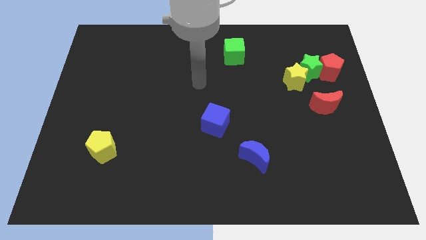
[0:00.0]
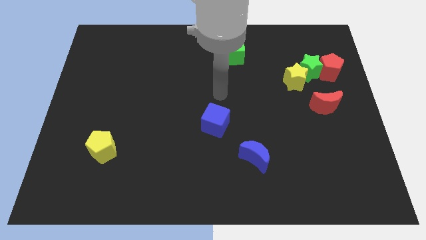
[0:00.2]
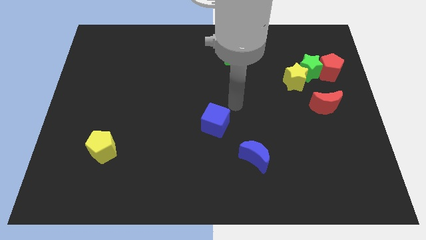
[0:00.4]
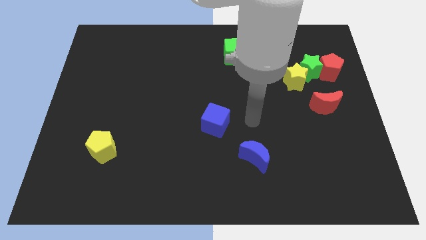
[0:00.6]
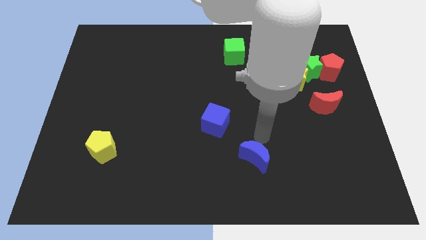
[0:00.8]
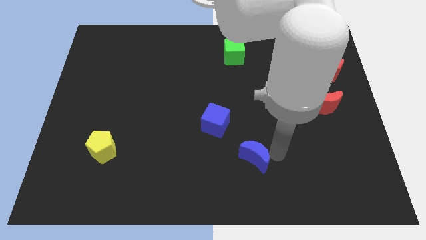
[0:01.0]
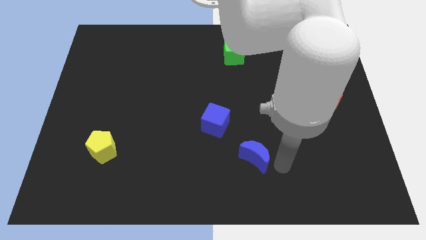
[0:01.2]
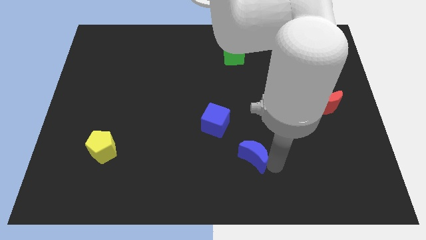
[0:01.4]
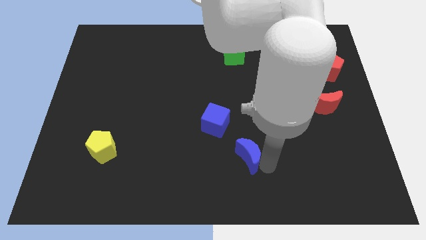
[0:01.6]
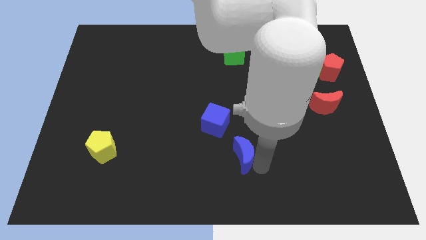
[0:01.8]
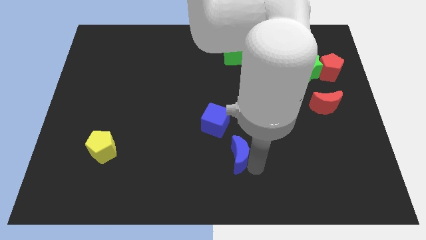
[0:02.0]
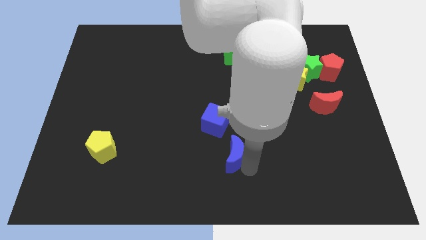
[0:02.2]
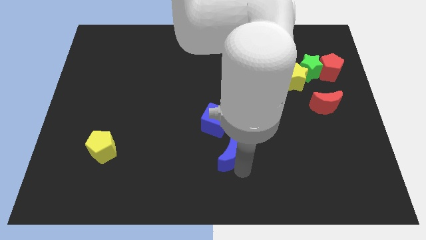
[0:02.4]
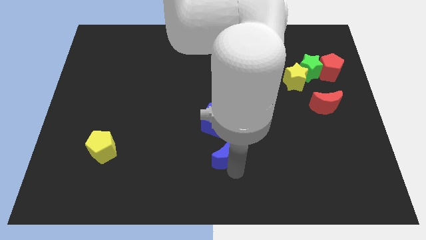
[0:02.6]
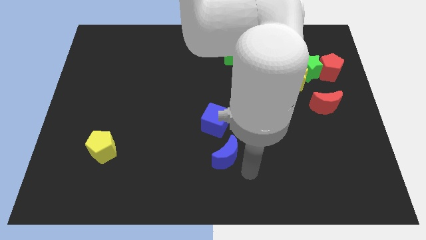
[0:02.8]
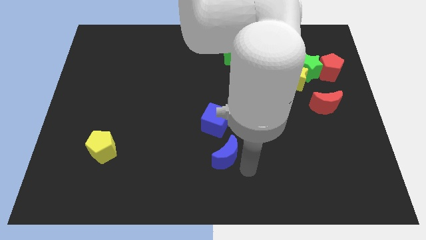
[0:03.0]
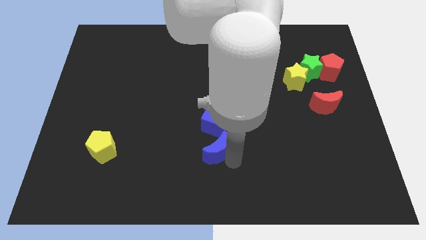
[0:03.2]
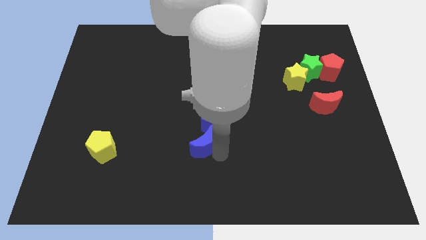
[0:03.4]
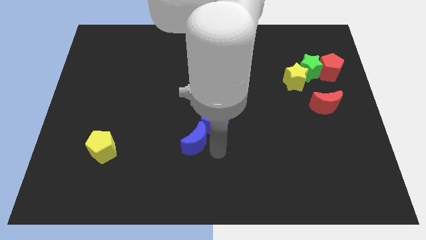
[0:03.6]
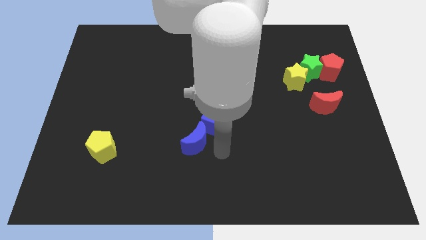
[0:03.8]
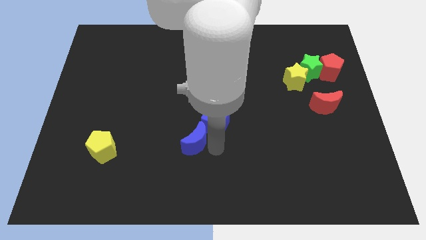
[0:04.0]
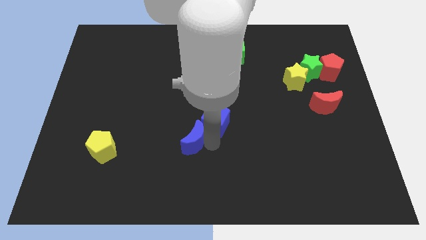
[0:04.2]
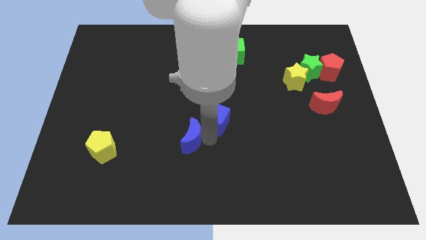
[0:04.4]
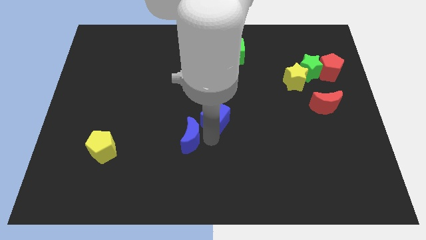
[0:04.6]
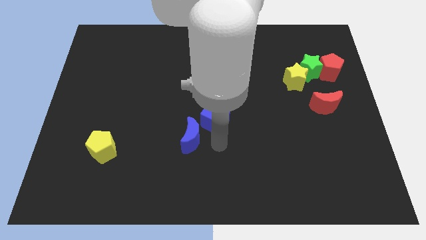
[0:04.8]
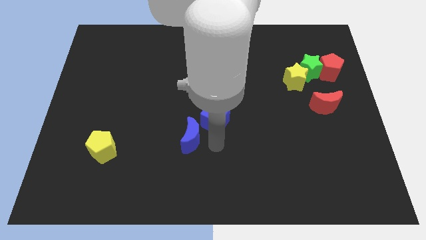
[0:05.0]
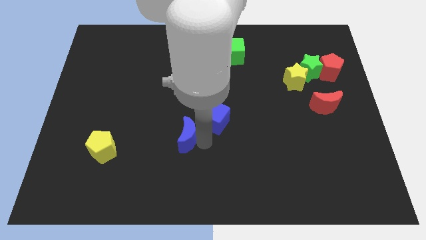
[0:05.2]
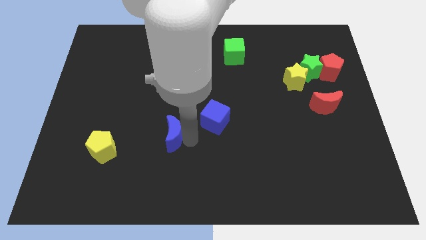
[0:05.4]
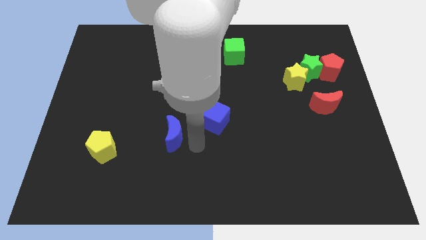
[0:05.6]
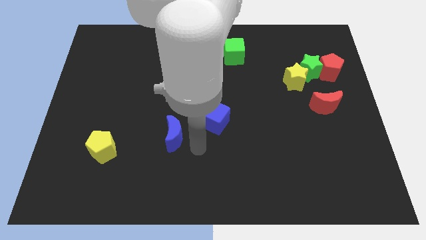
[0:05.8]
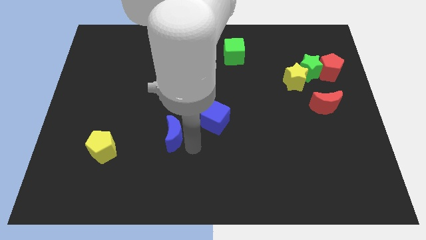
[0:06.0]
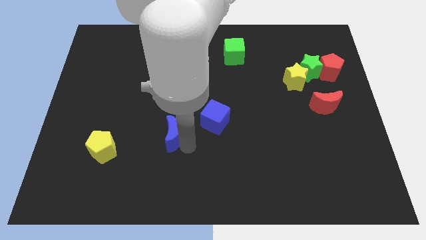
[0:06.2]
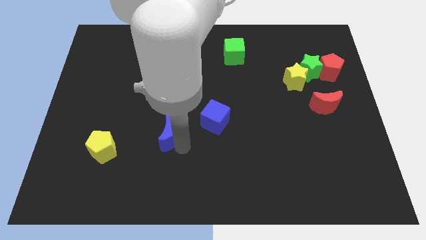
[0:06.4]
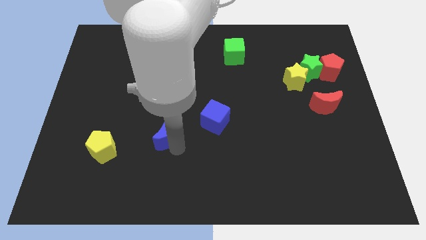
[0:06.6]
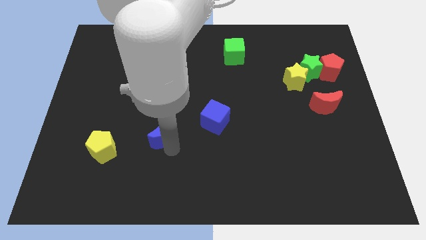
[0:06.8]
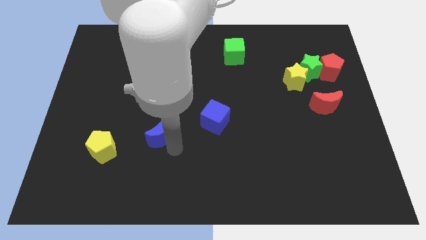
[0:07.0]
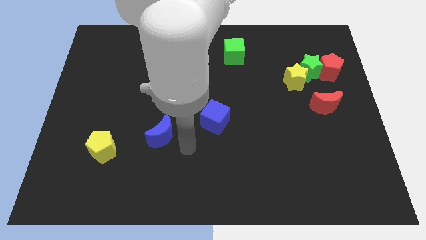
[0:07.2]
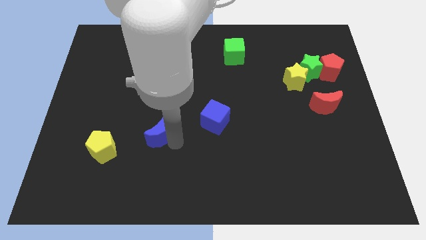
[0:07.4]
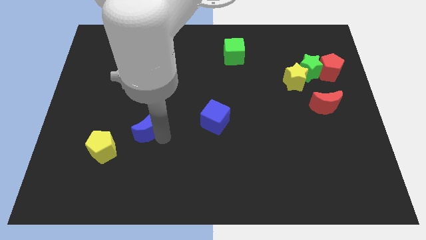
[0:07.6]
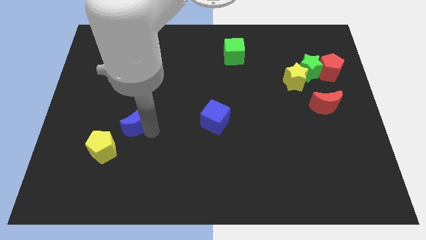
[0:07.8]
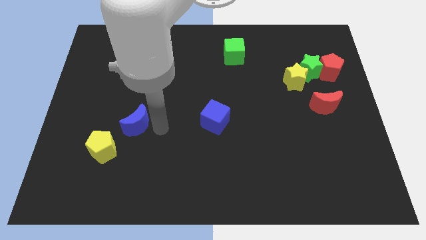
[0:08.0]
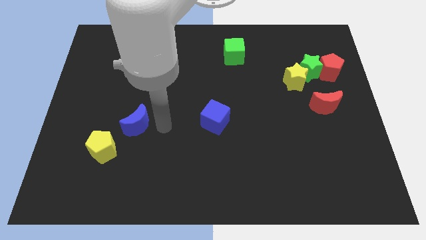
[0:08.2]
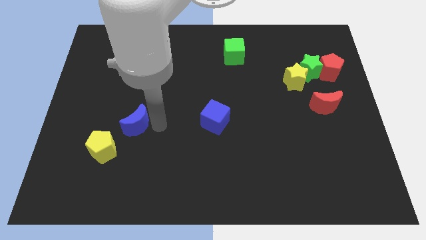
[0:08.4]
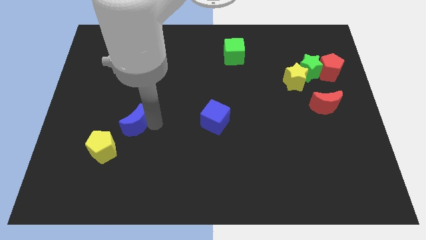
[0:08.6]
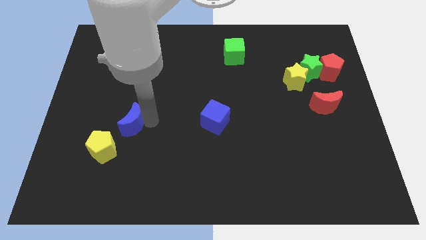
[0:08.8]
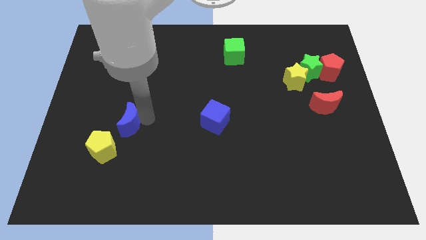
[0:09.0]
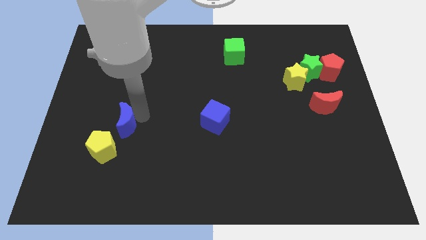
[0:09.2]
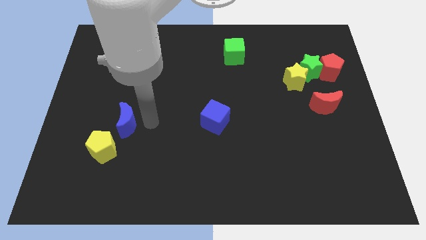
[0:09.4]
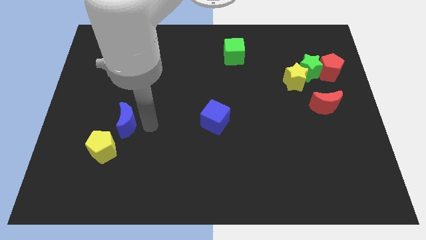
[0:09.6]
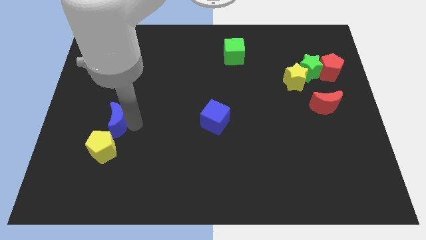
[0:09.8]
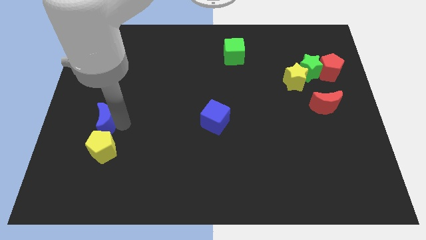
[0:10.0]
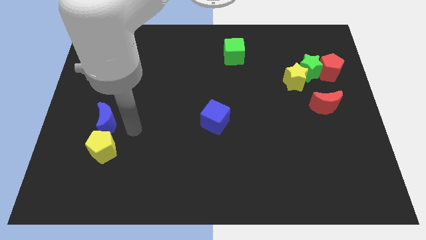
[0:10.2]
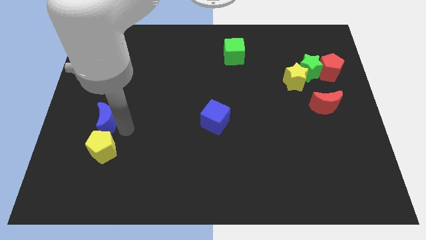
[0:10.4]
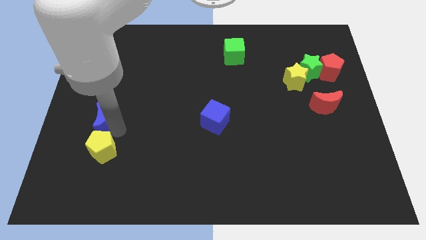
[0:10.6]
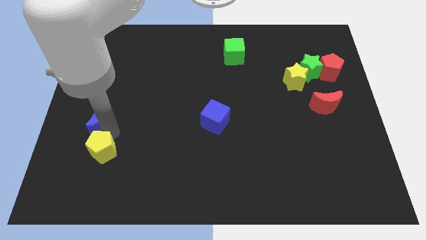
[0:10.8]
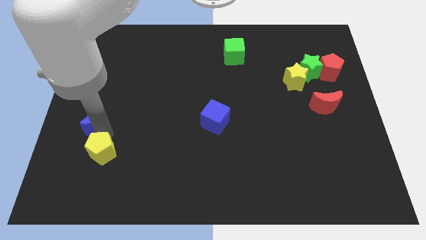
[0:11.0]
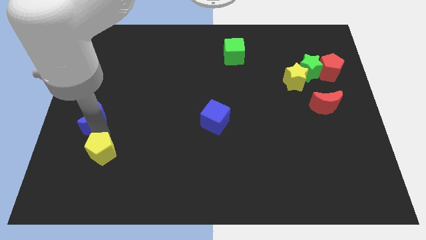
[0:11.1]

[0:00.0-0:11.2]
move the blue moon to the left side of the board

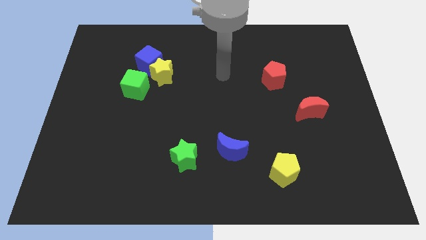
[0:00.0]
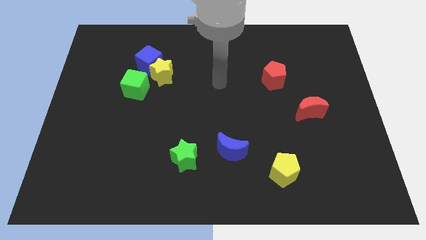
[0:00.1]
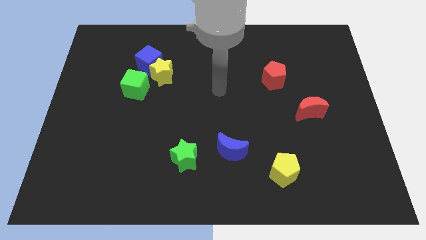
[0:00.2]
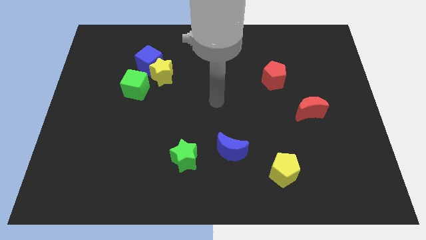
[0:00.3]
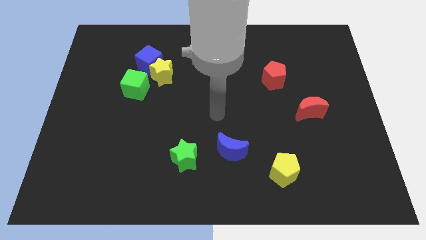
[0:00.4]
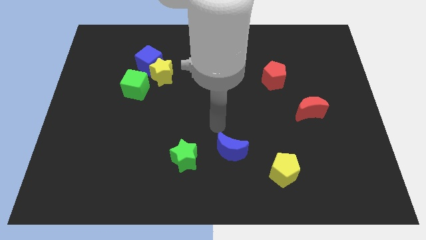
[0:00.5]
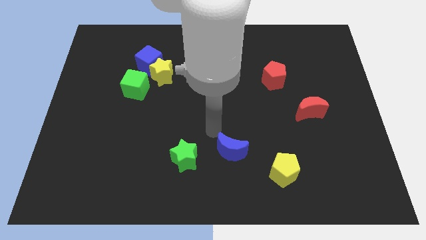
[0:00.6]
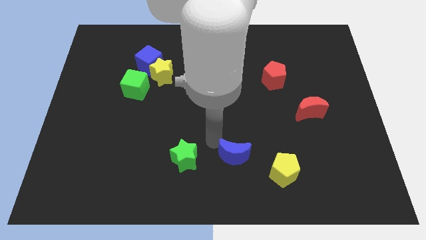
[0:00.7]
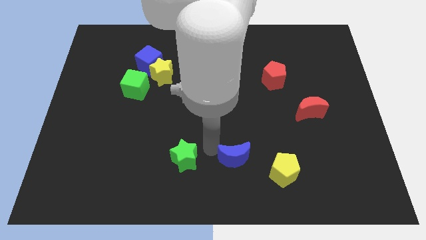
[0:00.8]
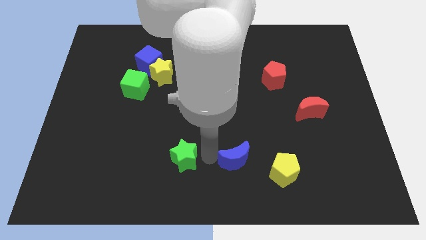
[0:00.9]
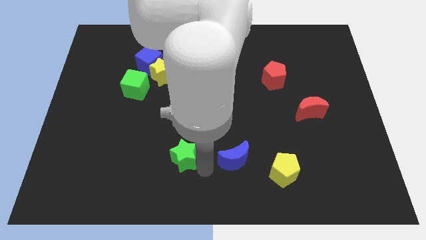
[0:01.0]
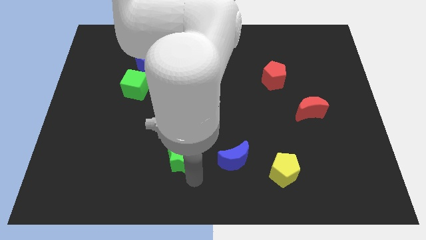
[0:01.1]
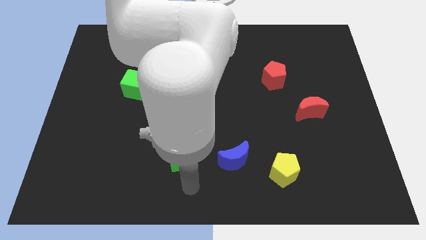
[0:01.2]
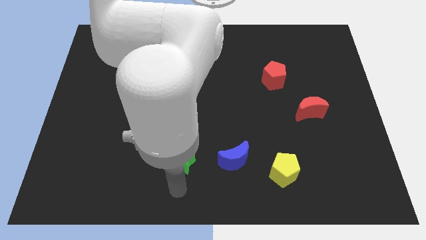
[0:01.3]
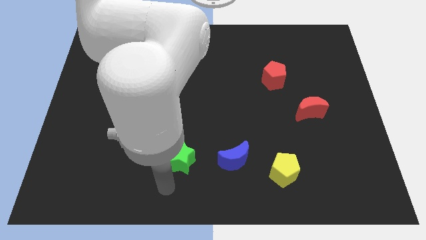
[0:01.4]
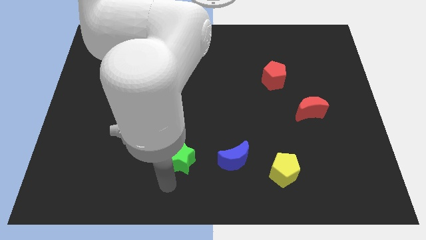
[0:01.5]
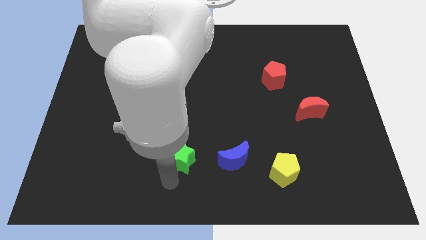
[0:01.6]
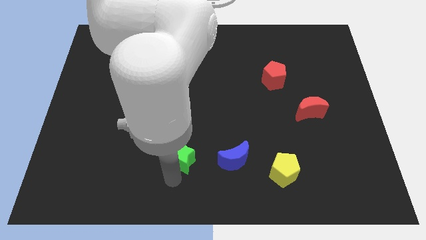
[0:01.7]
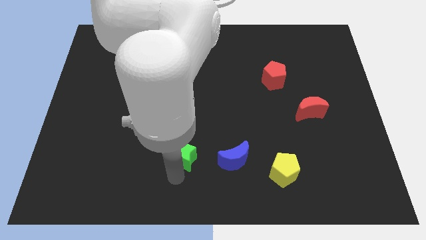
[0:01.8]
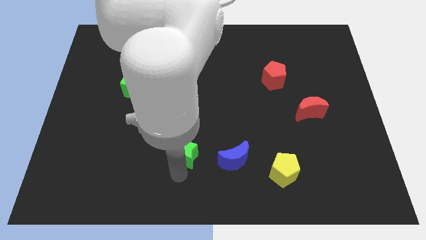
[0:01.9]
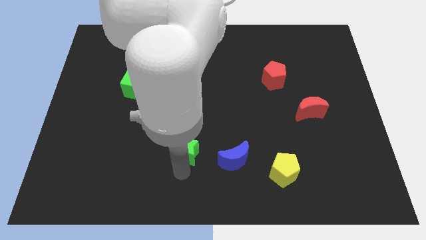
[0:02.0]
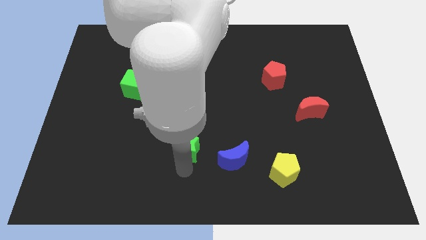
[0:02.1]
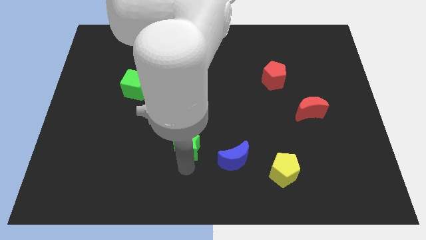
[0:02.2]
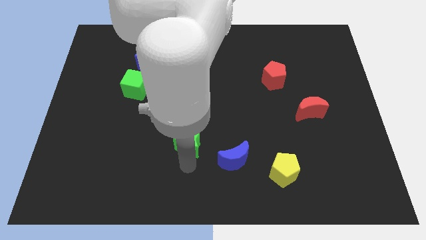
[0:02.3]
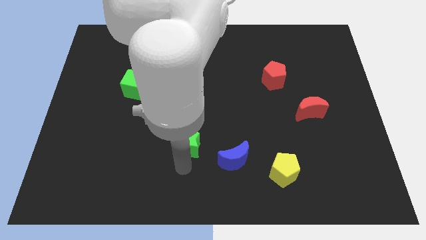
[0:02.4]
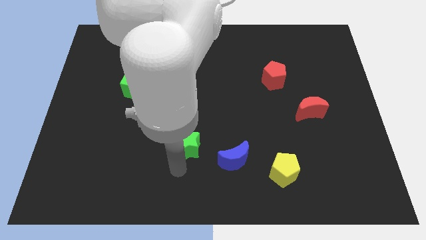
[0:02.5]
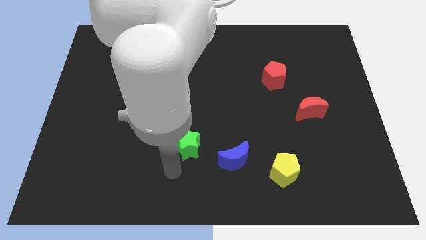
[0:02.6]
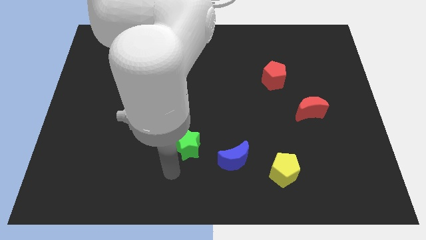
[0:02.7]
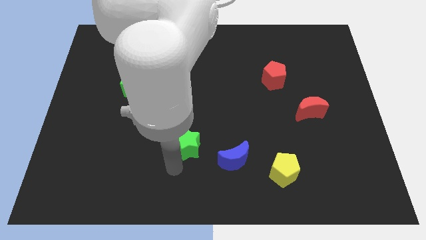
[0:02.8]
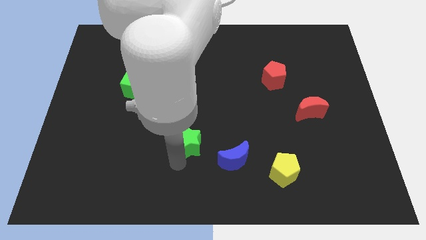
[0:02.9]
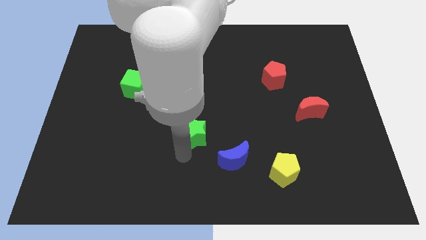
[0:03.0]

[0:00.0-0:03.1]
put the green star to the center of the board
